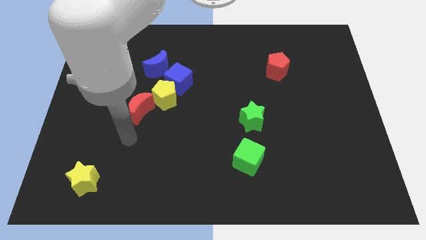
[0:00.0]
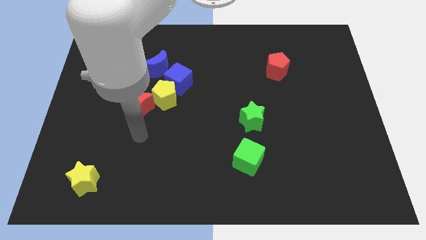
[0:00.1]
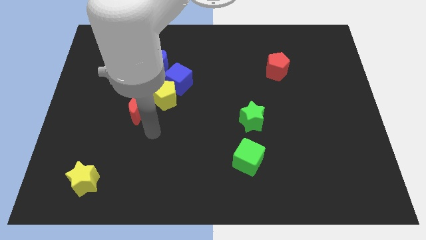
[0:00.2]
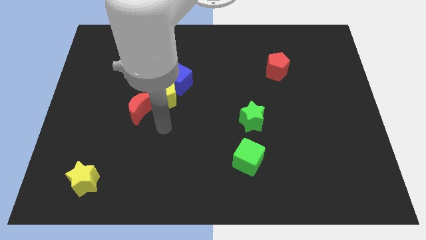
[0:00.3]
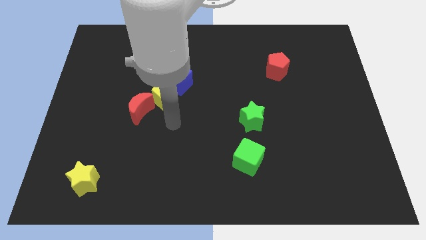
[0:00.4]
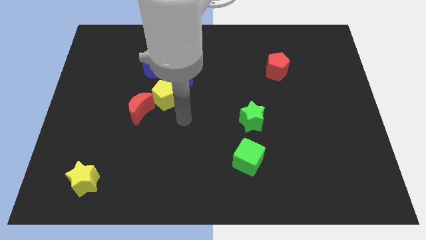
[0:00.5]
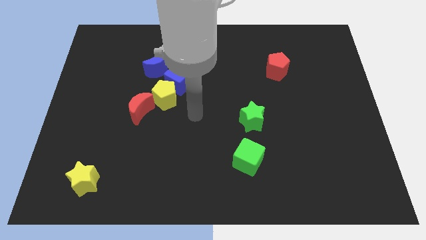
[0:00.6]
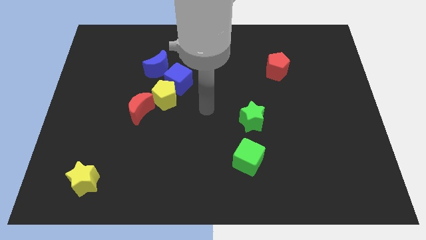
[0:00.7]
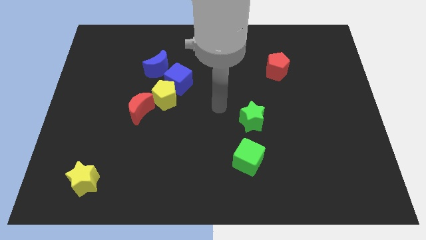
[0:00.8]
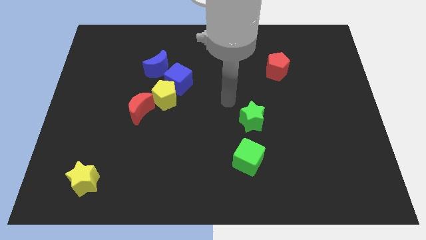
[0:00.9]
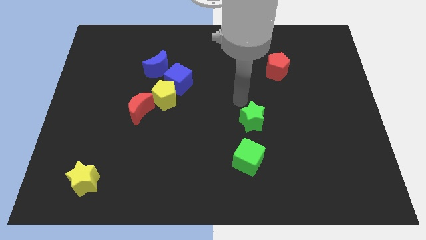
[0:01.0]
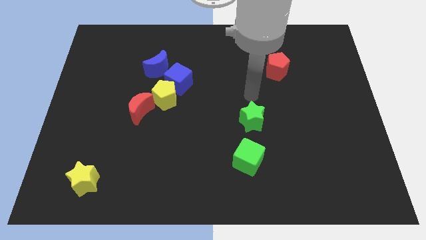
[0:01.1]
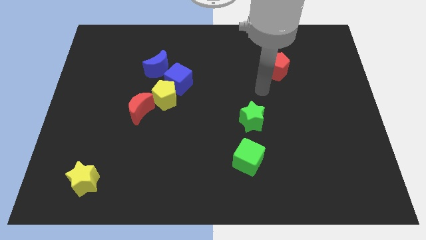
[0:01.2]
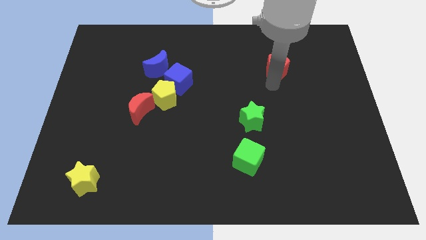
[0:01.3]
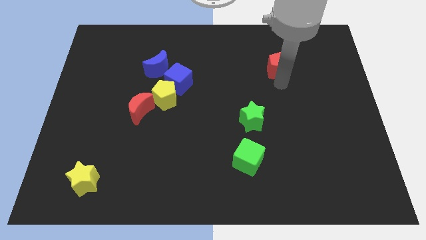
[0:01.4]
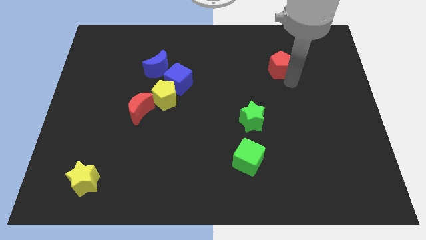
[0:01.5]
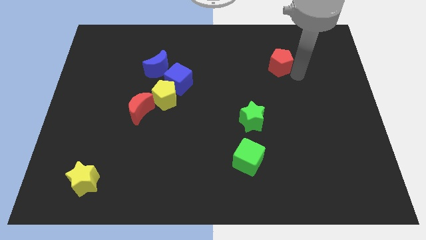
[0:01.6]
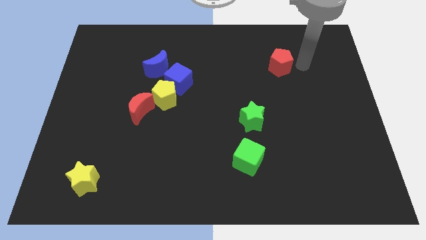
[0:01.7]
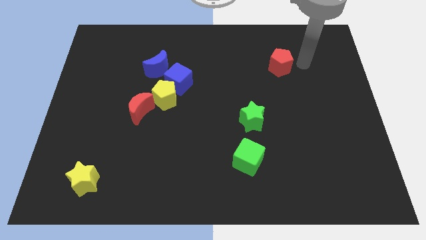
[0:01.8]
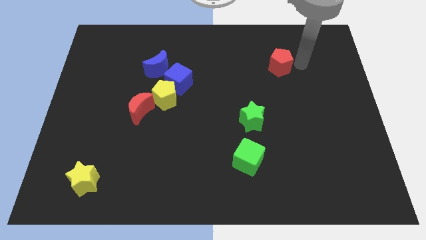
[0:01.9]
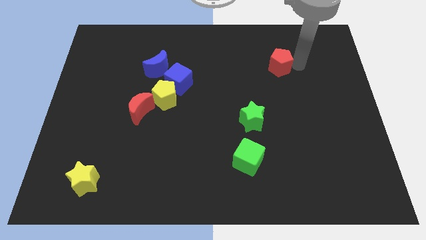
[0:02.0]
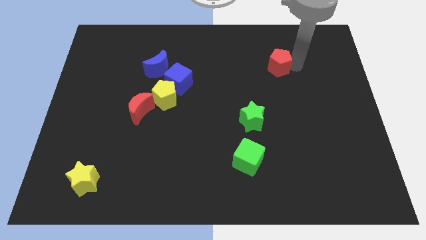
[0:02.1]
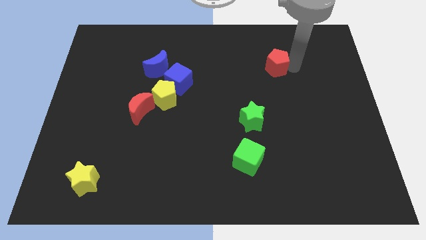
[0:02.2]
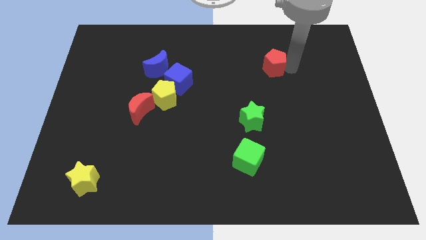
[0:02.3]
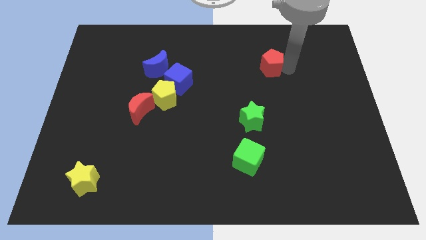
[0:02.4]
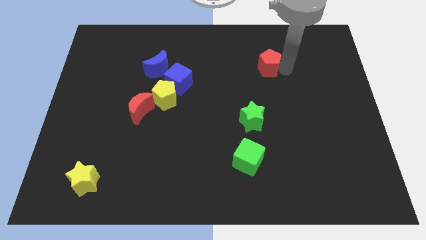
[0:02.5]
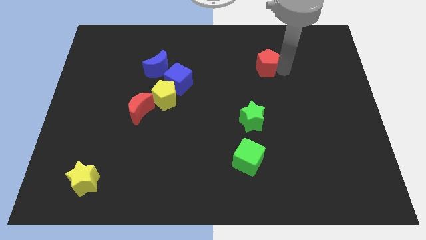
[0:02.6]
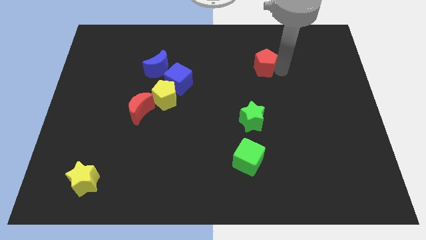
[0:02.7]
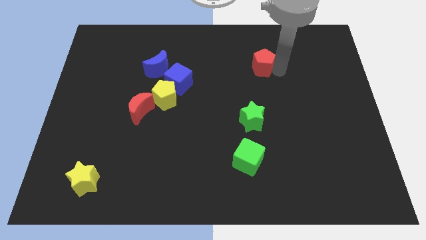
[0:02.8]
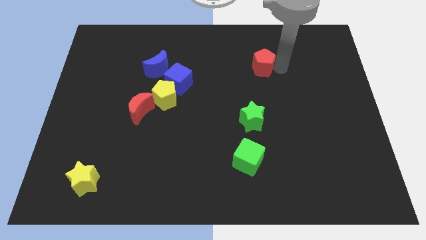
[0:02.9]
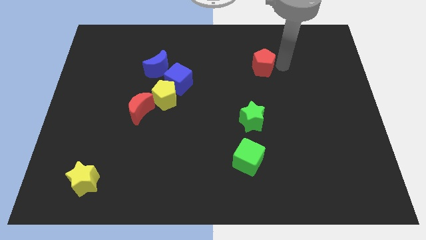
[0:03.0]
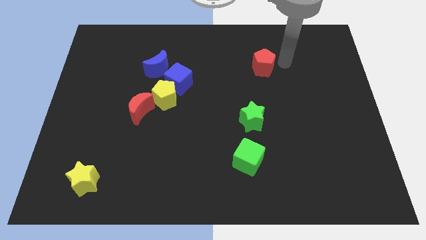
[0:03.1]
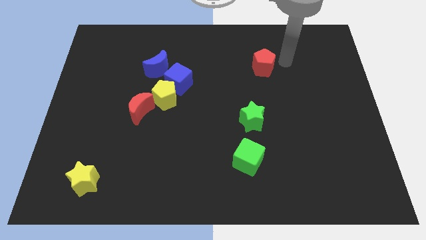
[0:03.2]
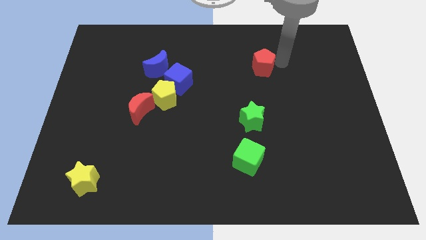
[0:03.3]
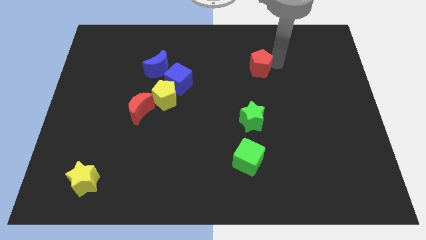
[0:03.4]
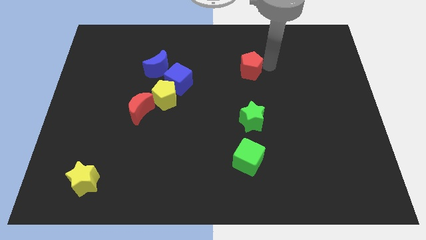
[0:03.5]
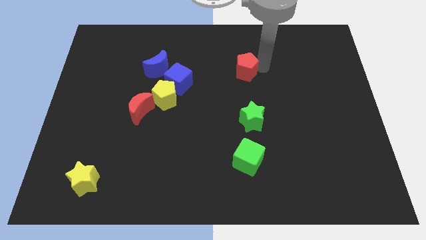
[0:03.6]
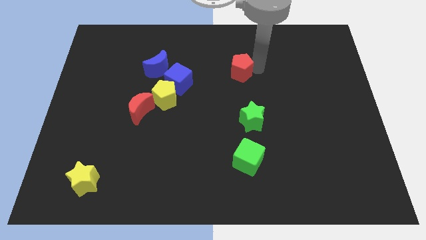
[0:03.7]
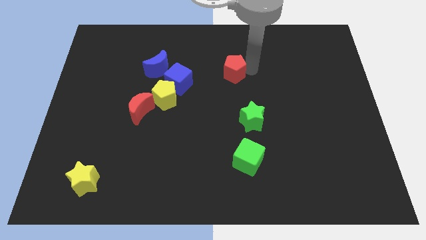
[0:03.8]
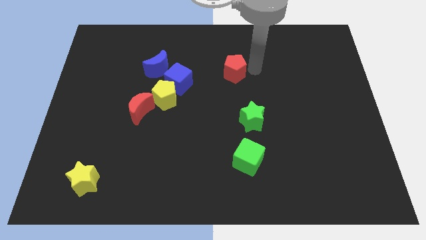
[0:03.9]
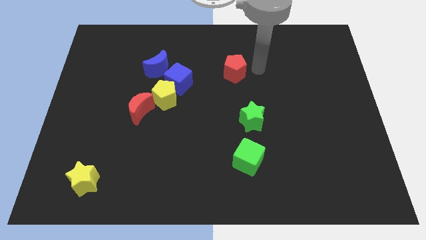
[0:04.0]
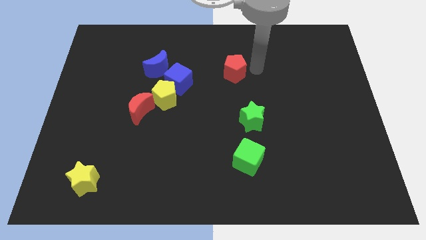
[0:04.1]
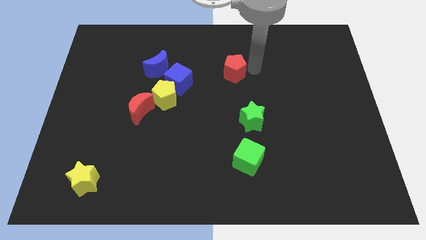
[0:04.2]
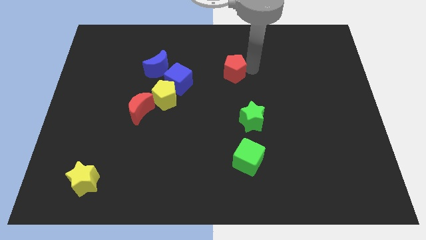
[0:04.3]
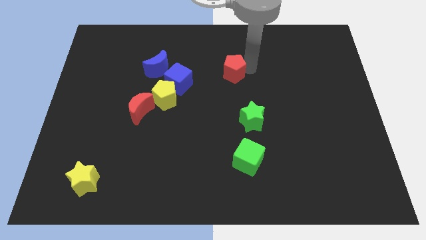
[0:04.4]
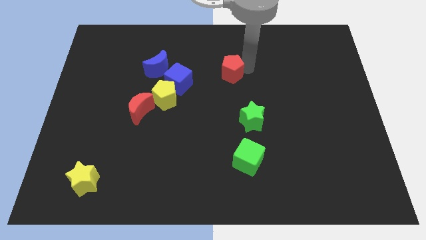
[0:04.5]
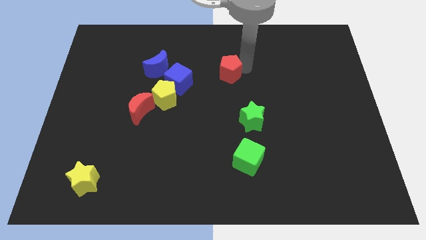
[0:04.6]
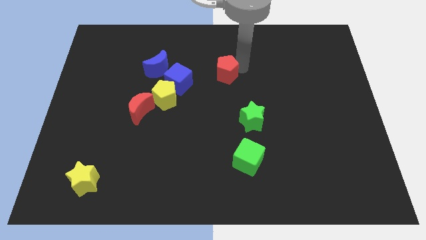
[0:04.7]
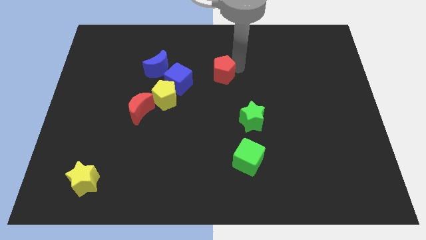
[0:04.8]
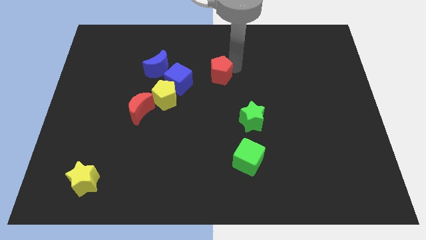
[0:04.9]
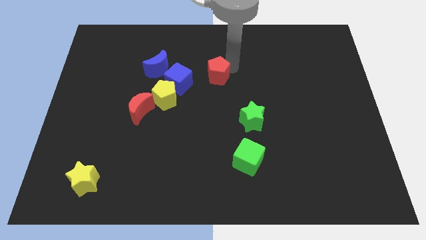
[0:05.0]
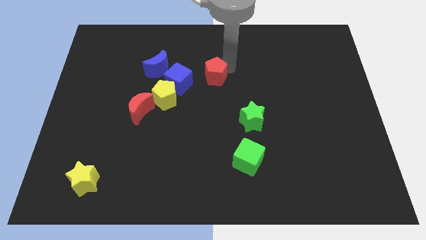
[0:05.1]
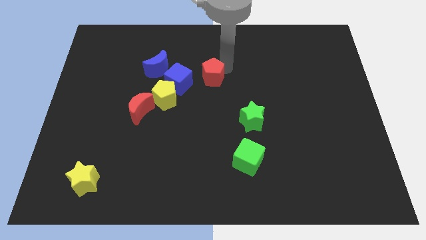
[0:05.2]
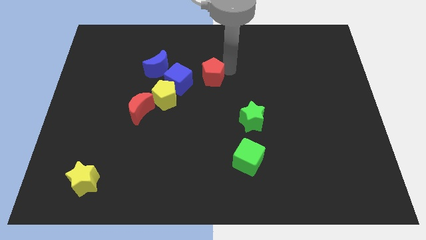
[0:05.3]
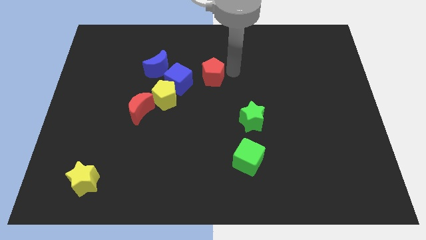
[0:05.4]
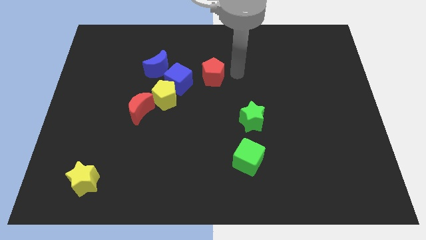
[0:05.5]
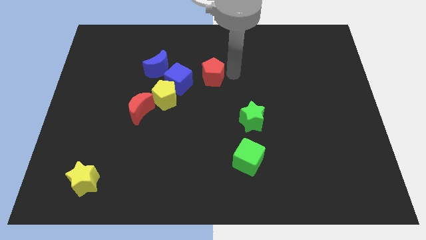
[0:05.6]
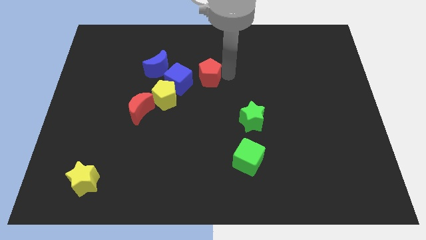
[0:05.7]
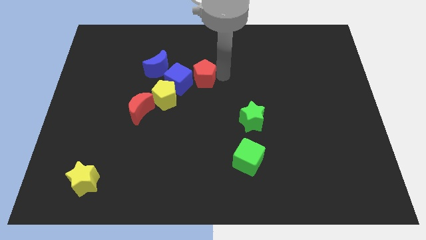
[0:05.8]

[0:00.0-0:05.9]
move the red pentagon close to the blue cube

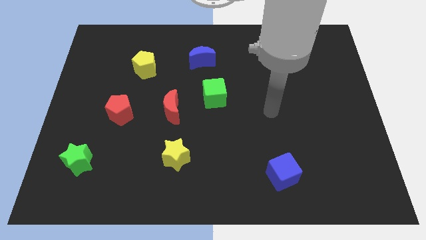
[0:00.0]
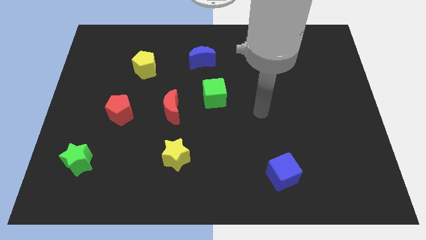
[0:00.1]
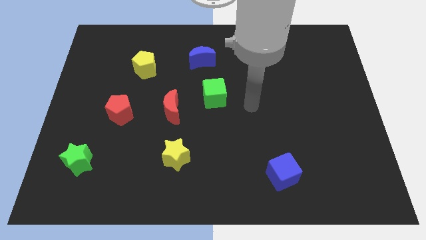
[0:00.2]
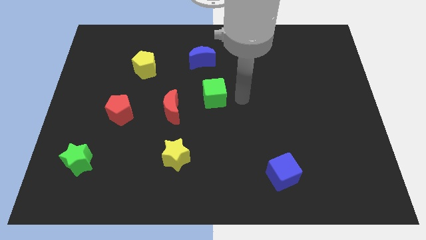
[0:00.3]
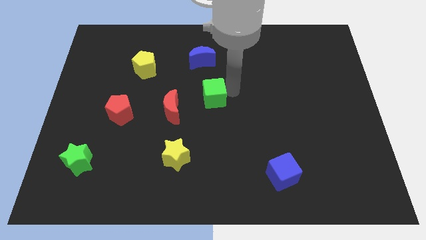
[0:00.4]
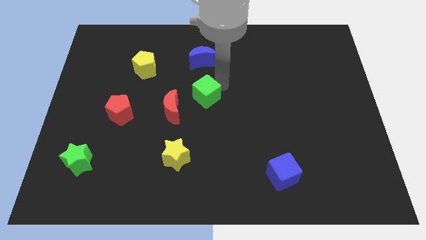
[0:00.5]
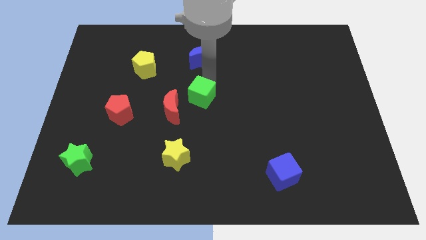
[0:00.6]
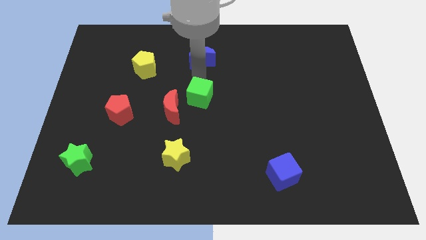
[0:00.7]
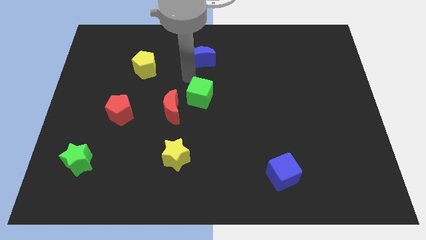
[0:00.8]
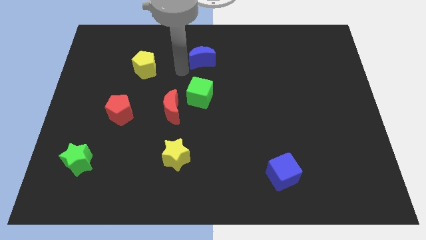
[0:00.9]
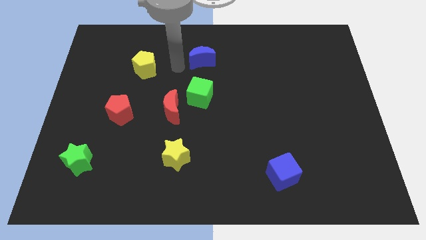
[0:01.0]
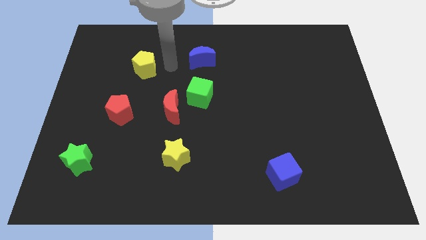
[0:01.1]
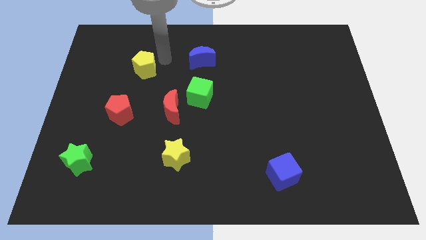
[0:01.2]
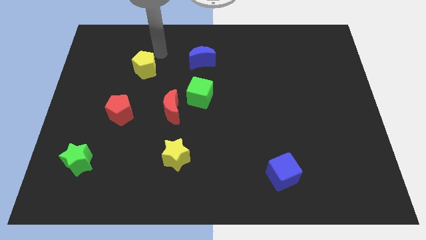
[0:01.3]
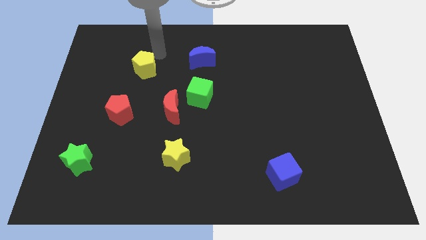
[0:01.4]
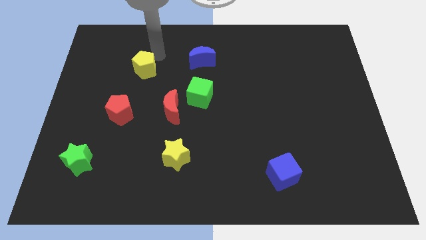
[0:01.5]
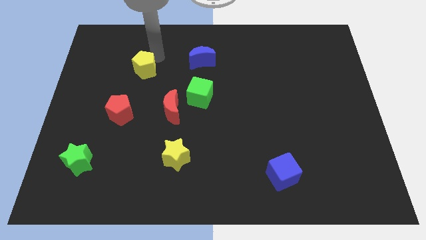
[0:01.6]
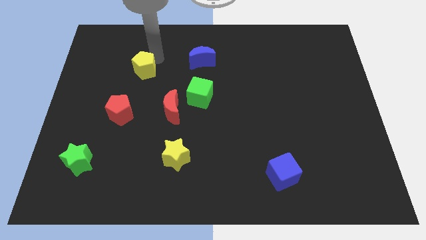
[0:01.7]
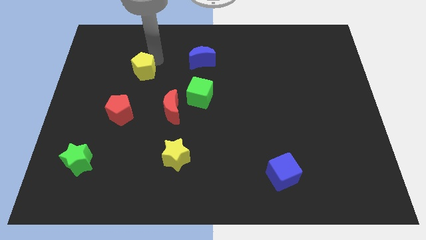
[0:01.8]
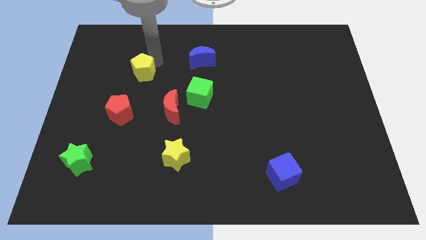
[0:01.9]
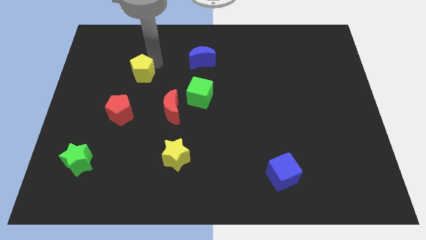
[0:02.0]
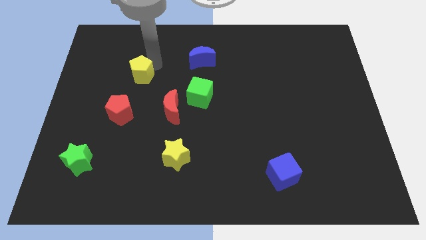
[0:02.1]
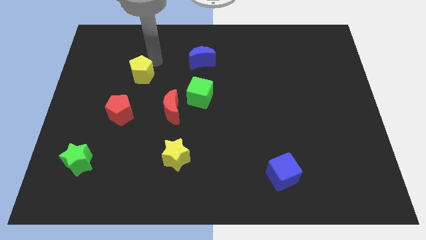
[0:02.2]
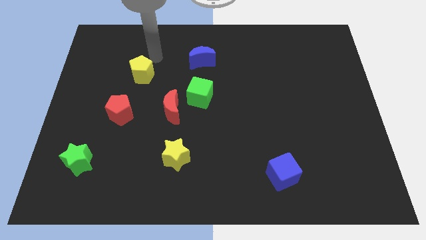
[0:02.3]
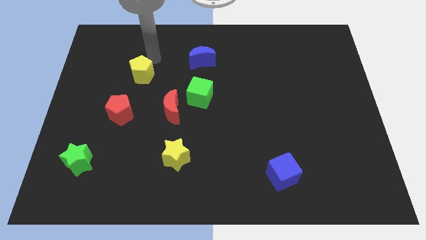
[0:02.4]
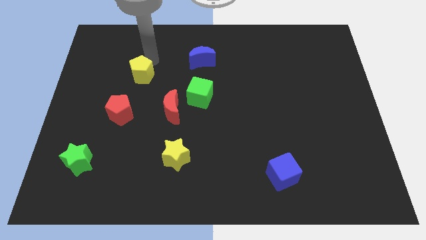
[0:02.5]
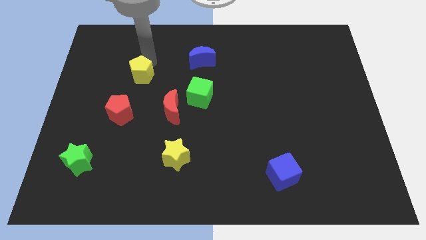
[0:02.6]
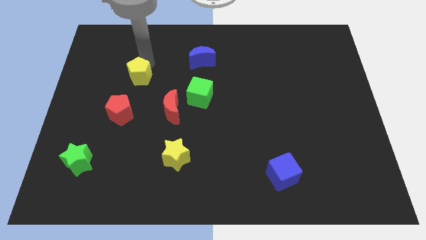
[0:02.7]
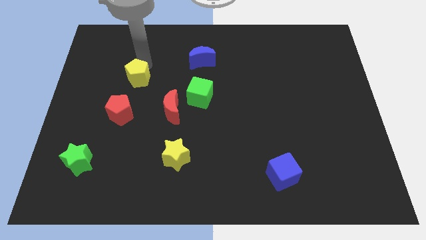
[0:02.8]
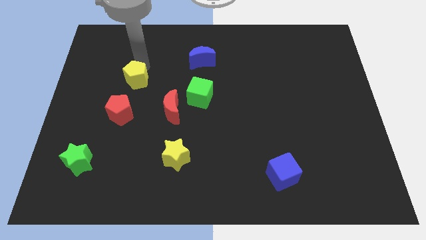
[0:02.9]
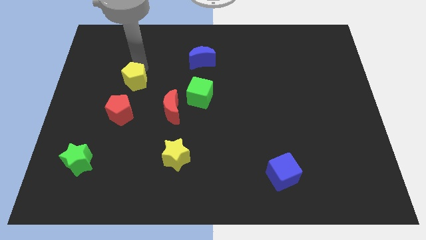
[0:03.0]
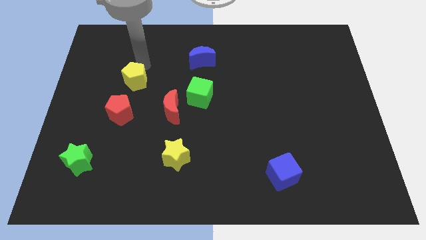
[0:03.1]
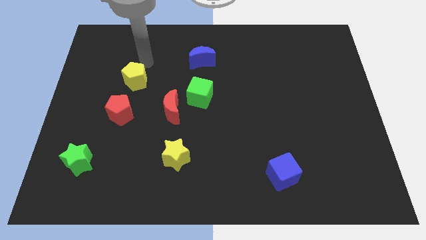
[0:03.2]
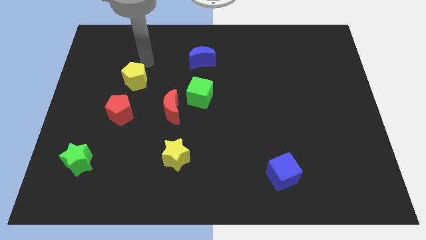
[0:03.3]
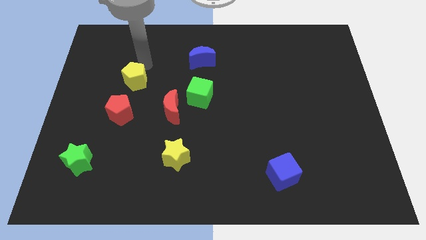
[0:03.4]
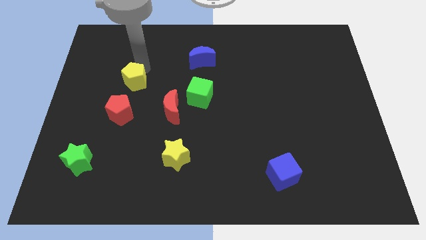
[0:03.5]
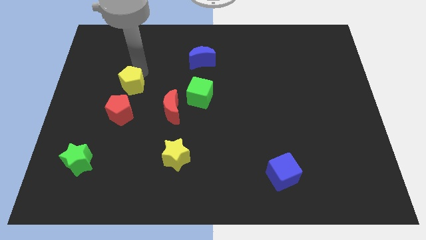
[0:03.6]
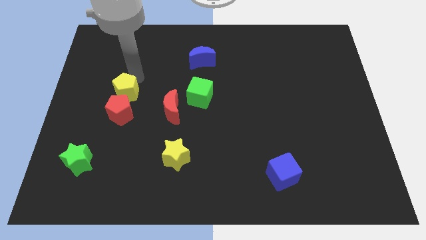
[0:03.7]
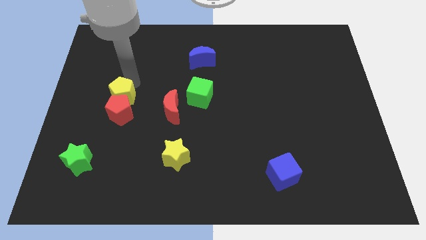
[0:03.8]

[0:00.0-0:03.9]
move the yellow pentagon towards the red pentagon
